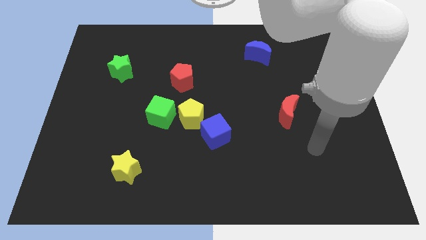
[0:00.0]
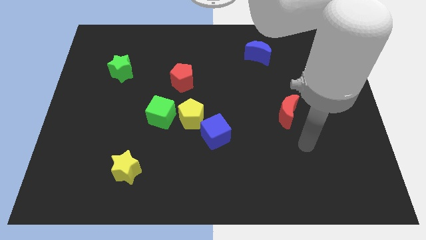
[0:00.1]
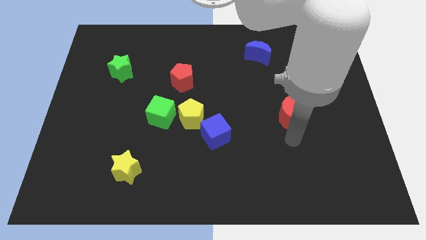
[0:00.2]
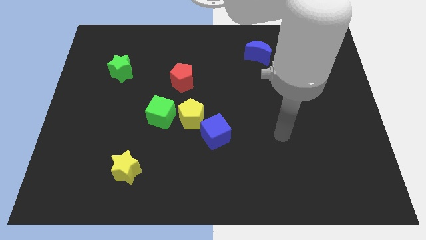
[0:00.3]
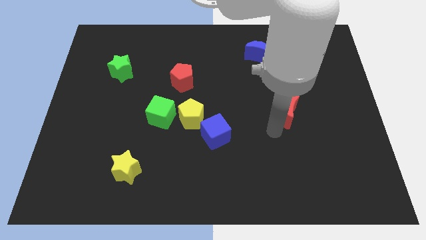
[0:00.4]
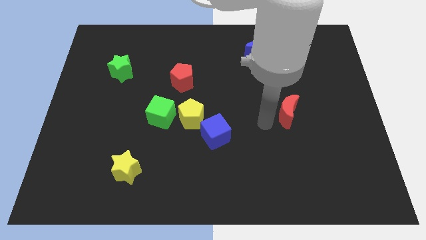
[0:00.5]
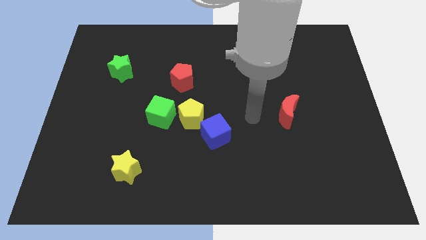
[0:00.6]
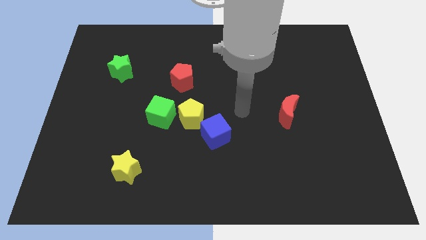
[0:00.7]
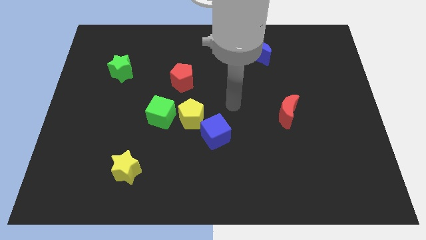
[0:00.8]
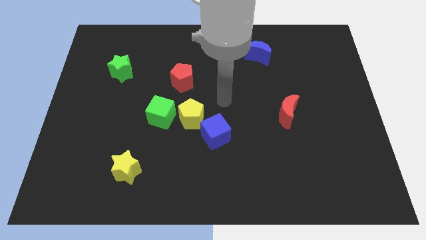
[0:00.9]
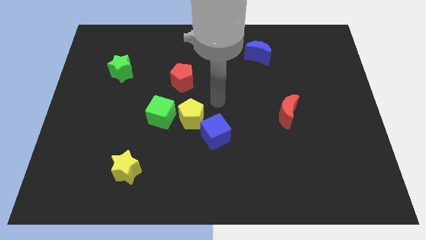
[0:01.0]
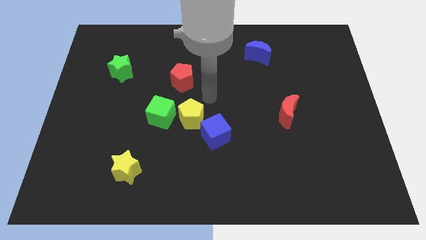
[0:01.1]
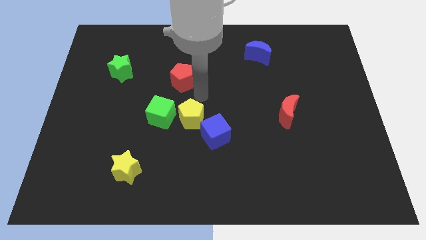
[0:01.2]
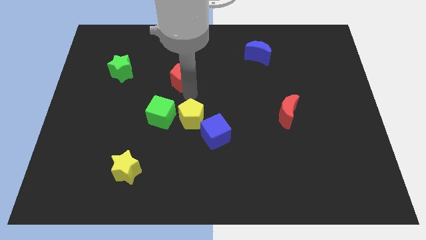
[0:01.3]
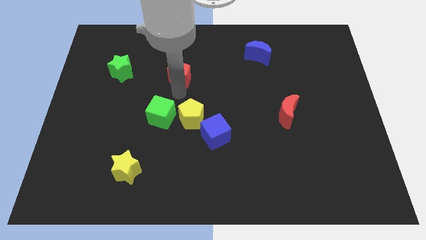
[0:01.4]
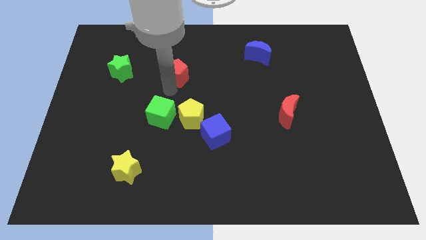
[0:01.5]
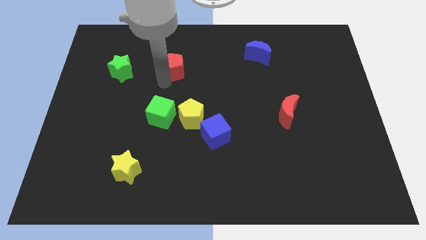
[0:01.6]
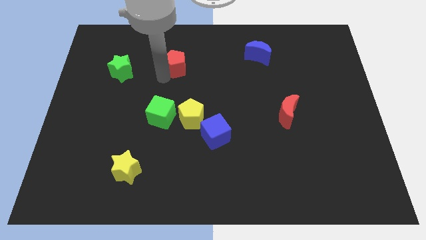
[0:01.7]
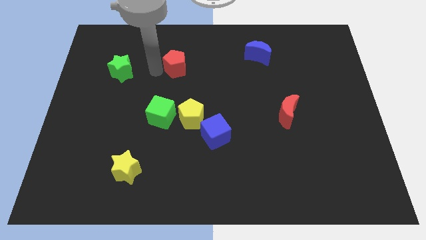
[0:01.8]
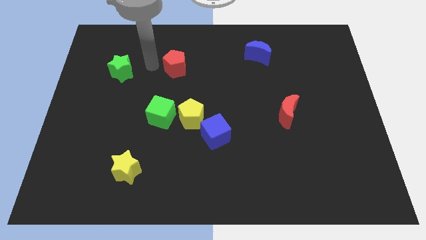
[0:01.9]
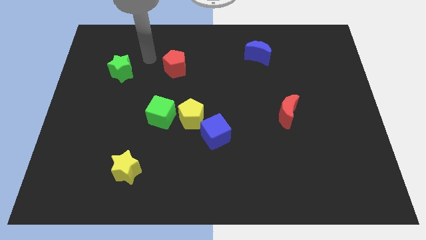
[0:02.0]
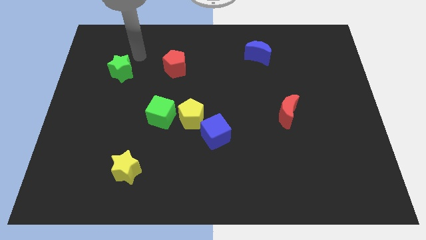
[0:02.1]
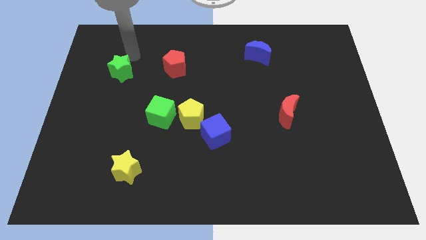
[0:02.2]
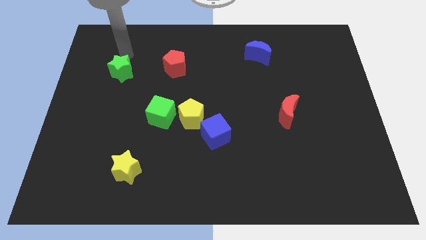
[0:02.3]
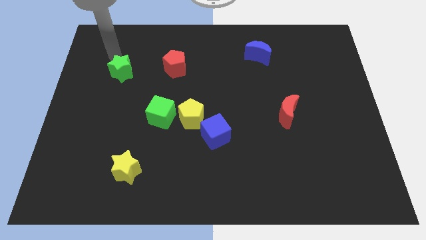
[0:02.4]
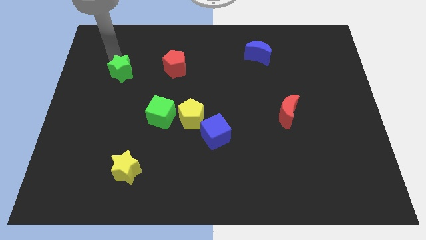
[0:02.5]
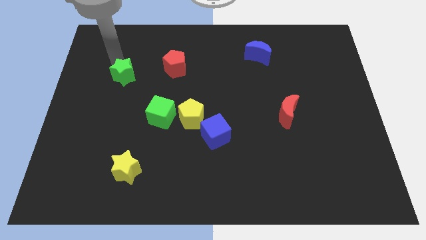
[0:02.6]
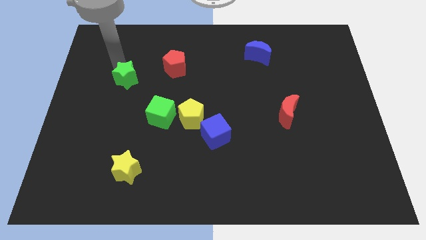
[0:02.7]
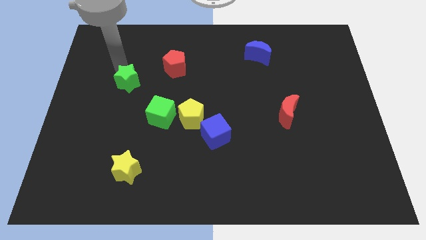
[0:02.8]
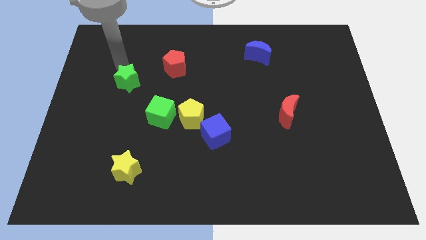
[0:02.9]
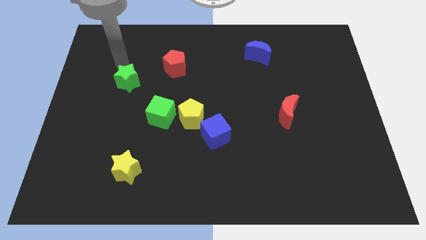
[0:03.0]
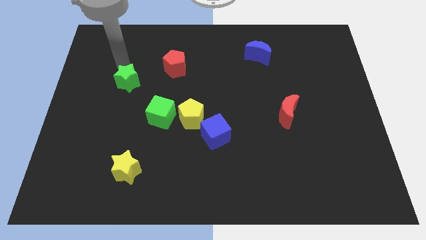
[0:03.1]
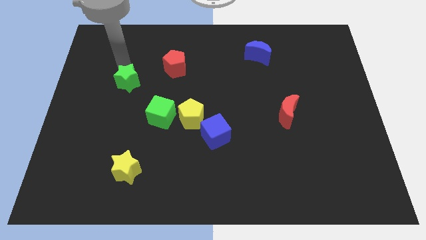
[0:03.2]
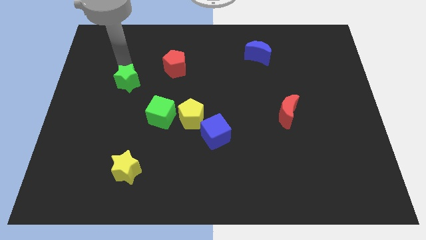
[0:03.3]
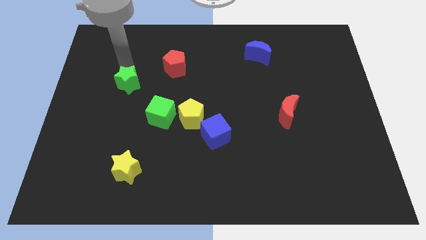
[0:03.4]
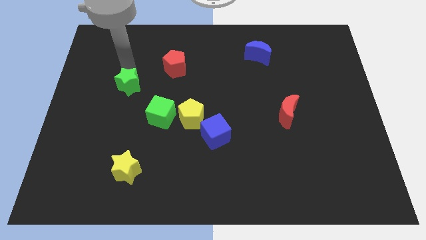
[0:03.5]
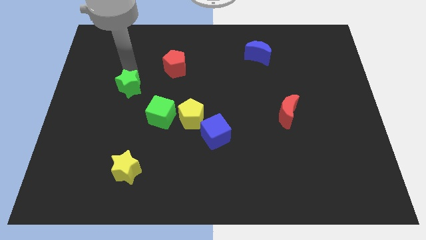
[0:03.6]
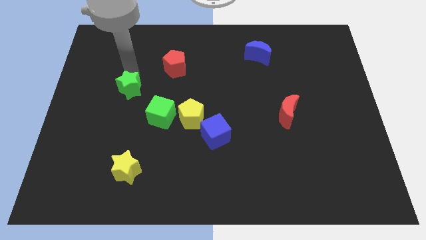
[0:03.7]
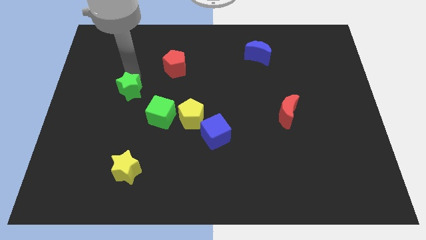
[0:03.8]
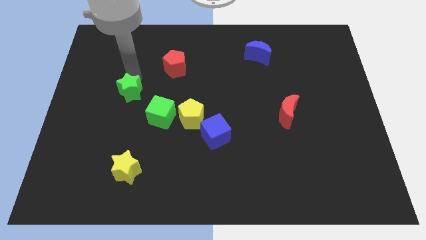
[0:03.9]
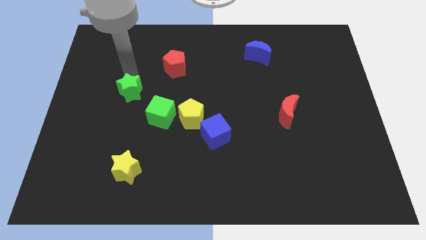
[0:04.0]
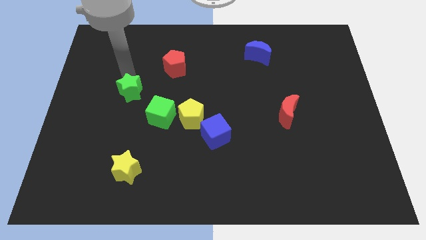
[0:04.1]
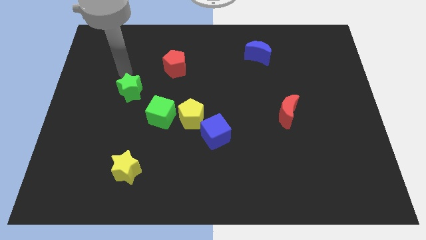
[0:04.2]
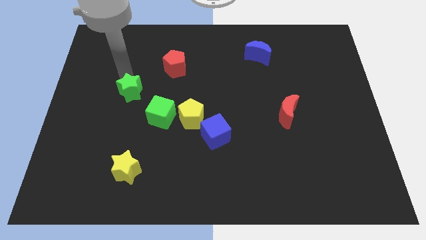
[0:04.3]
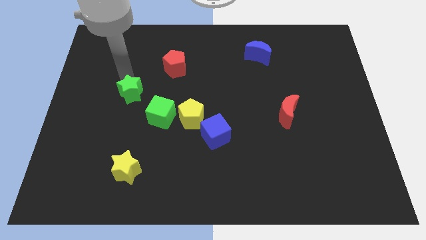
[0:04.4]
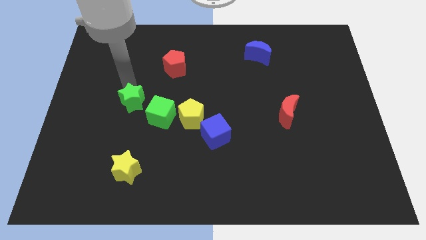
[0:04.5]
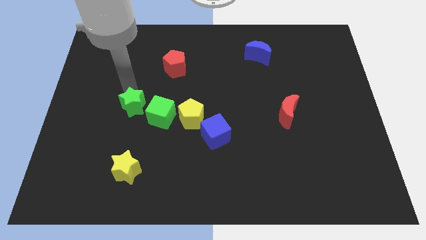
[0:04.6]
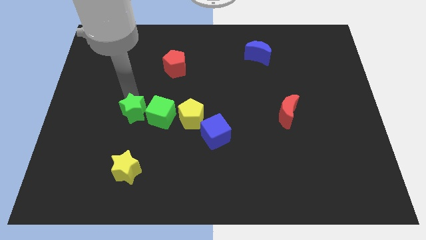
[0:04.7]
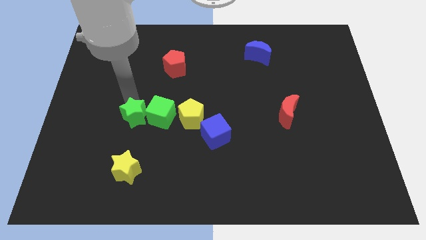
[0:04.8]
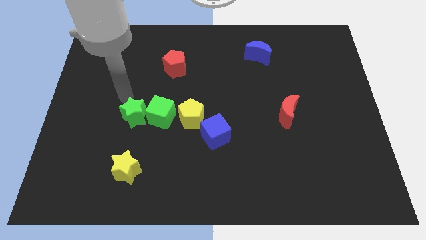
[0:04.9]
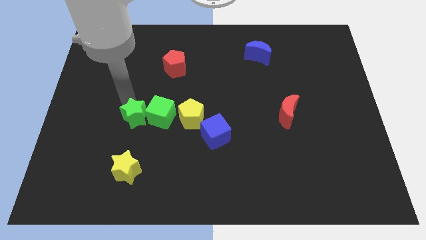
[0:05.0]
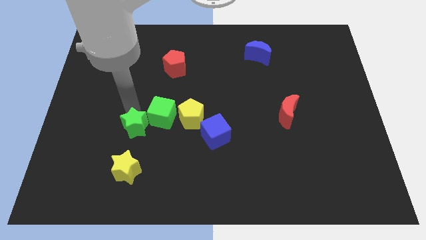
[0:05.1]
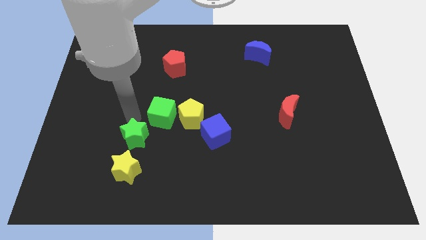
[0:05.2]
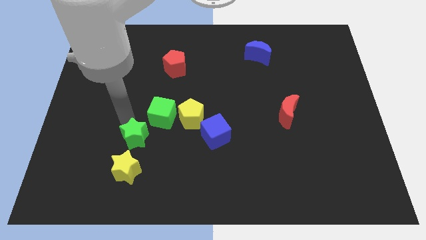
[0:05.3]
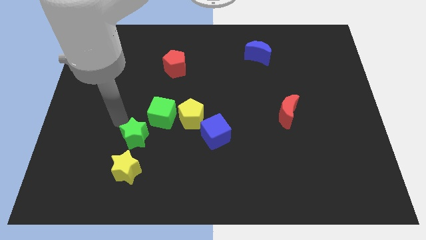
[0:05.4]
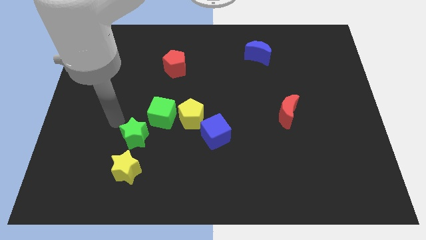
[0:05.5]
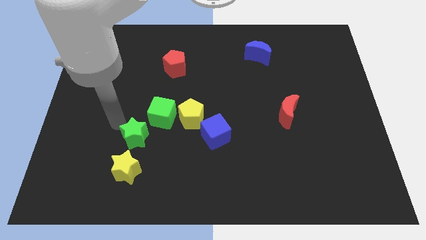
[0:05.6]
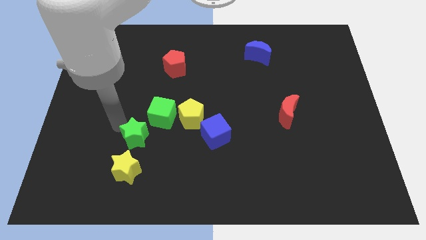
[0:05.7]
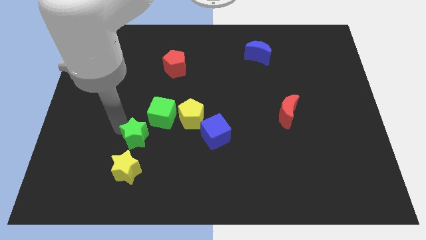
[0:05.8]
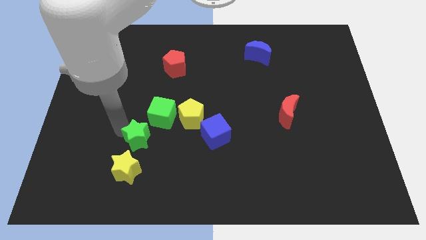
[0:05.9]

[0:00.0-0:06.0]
slide the green star to the top right side of the yellow star

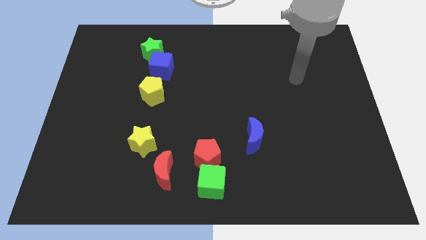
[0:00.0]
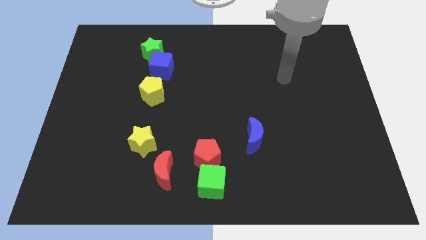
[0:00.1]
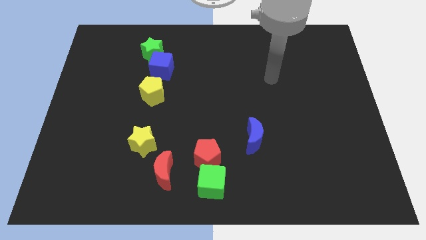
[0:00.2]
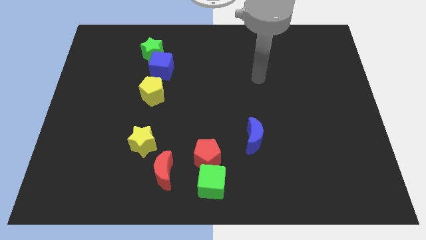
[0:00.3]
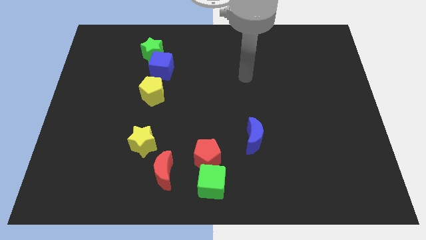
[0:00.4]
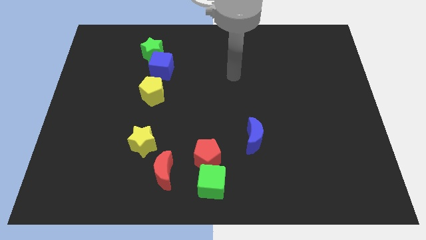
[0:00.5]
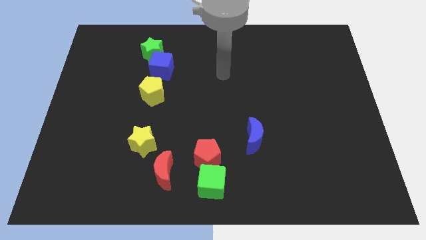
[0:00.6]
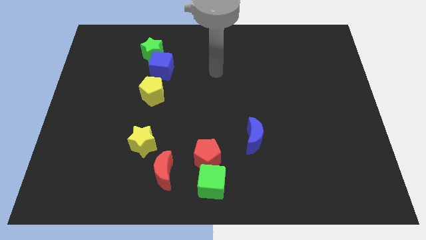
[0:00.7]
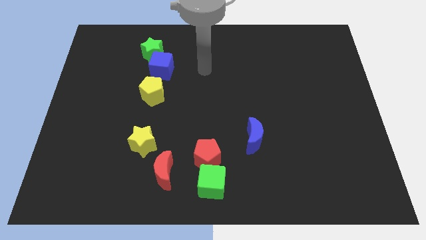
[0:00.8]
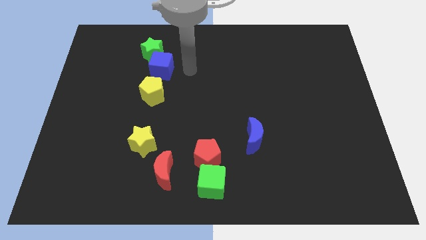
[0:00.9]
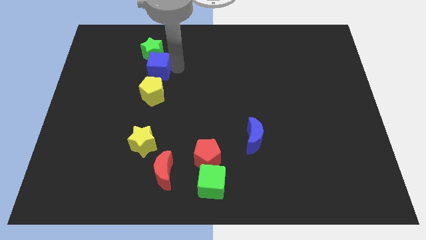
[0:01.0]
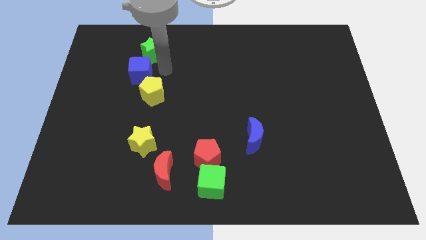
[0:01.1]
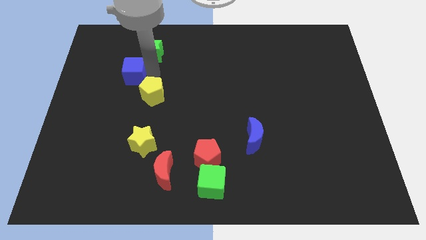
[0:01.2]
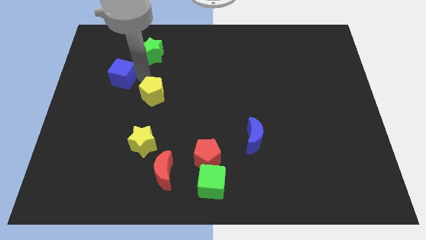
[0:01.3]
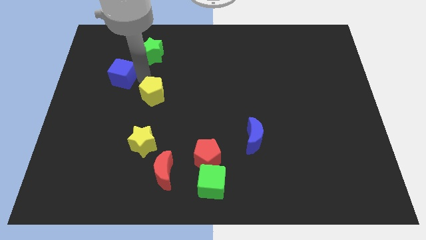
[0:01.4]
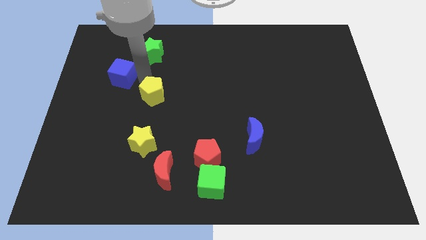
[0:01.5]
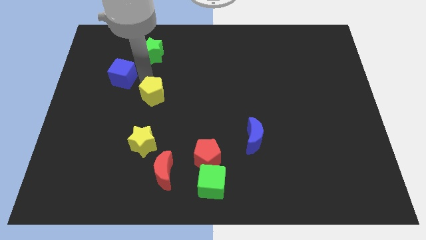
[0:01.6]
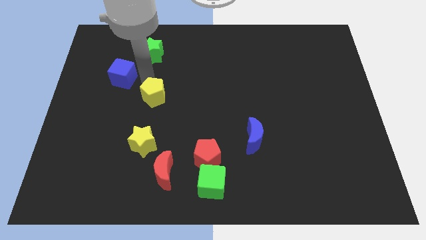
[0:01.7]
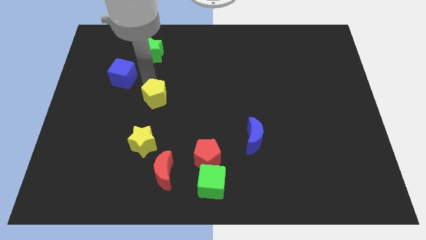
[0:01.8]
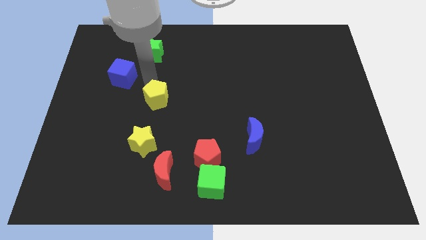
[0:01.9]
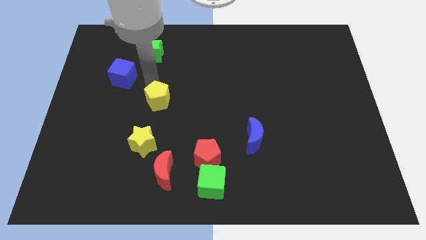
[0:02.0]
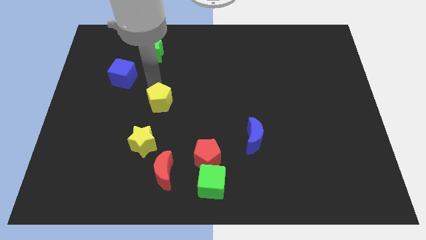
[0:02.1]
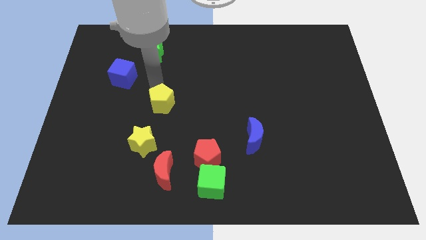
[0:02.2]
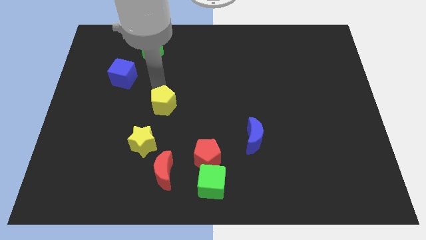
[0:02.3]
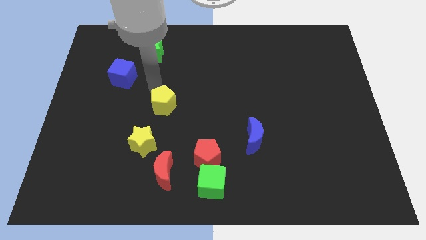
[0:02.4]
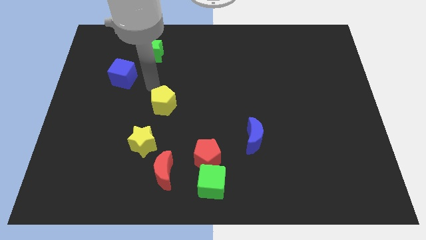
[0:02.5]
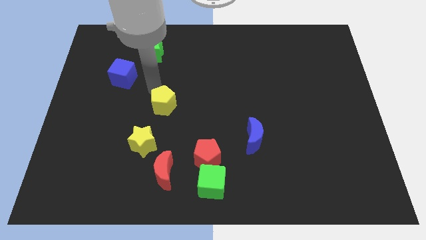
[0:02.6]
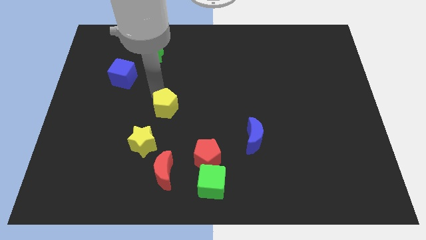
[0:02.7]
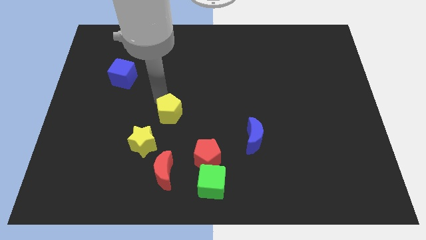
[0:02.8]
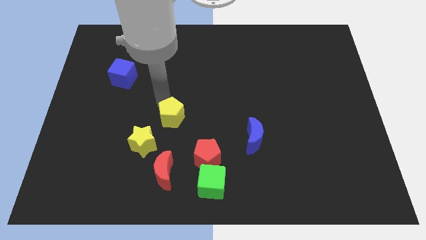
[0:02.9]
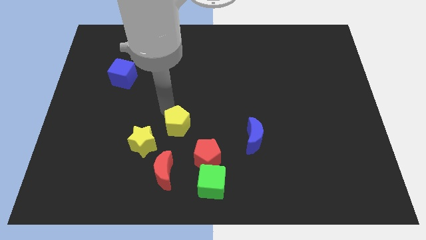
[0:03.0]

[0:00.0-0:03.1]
push the yellow pentagon to the right of the yellow star
